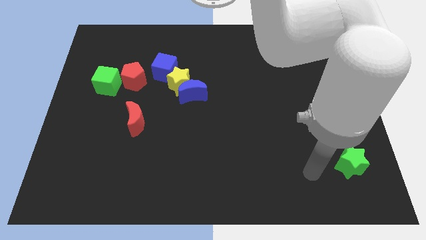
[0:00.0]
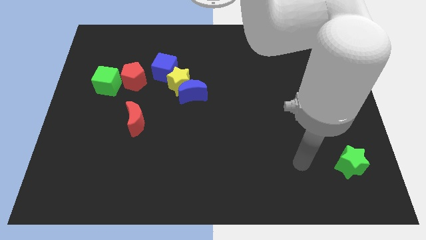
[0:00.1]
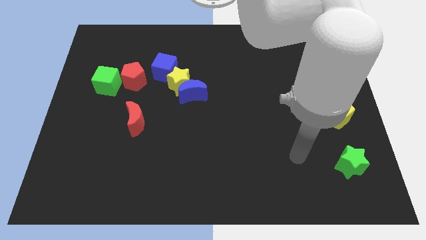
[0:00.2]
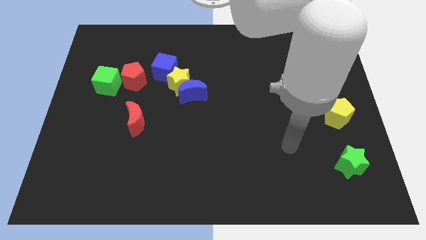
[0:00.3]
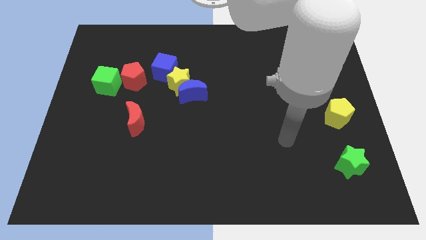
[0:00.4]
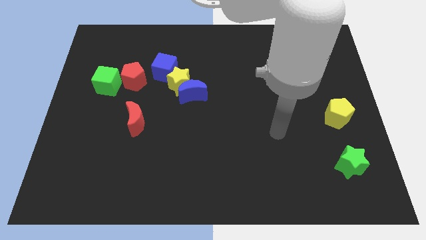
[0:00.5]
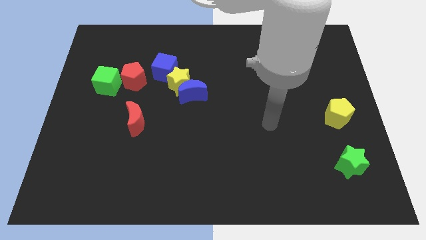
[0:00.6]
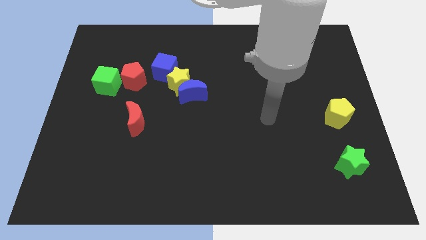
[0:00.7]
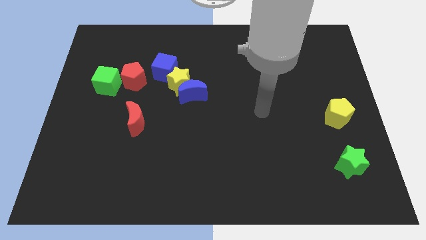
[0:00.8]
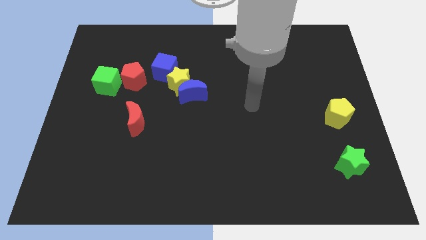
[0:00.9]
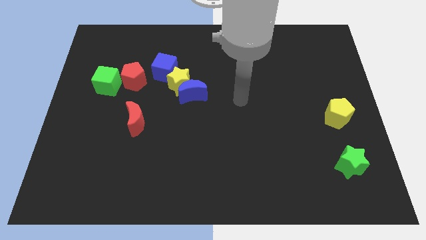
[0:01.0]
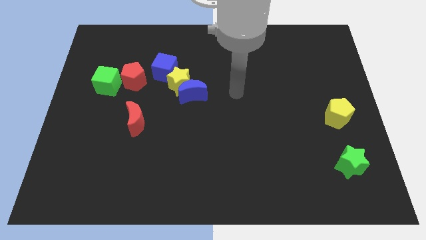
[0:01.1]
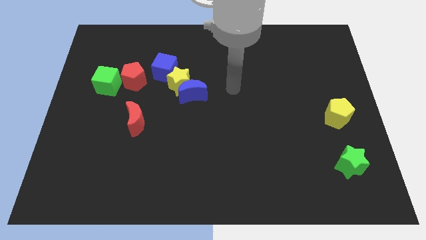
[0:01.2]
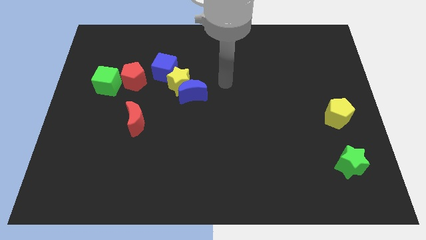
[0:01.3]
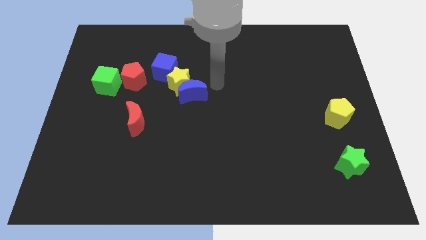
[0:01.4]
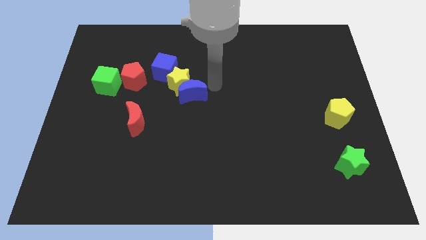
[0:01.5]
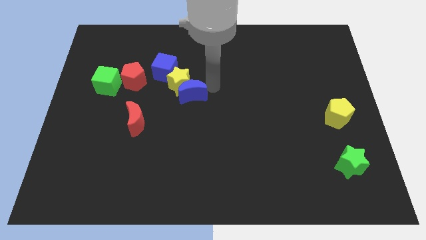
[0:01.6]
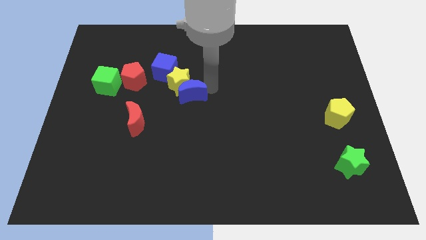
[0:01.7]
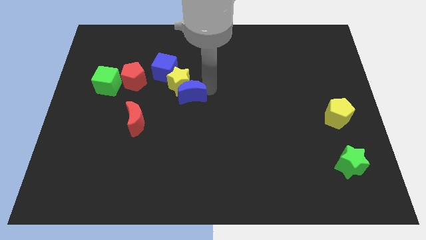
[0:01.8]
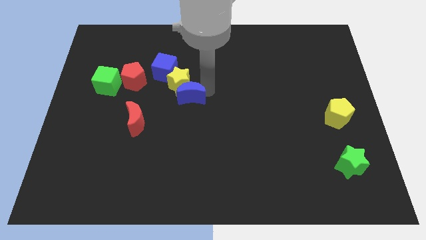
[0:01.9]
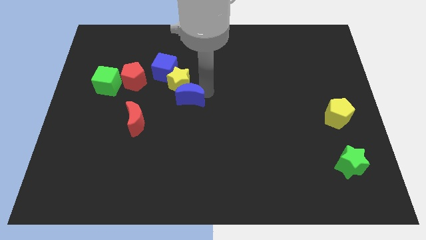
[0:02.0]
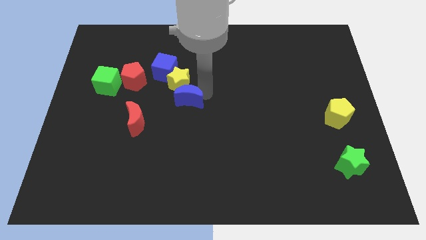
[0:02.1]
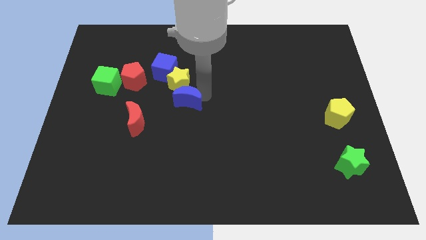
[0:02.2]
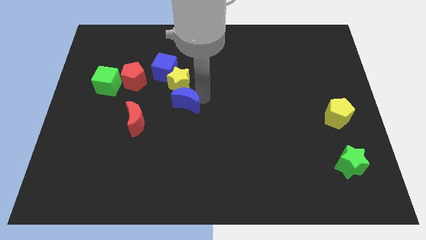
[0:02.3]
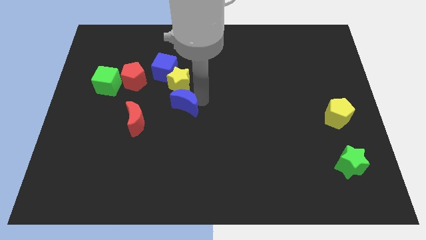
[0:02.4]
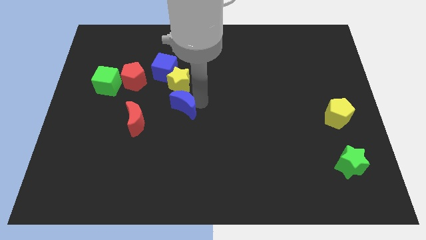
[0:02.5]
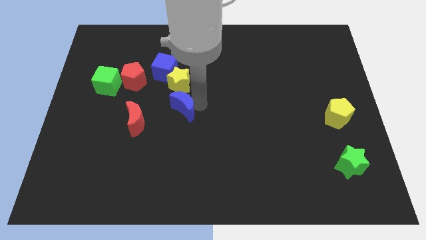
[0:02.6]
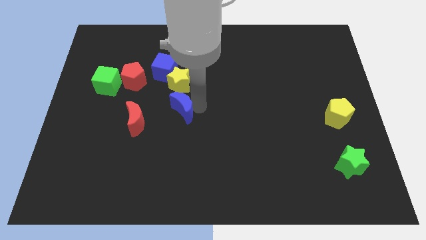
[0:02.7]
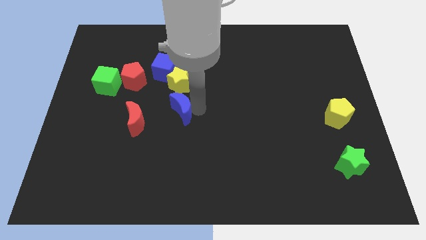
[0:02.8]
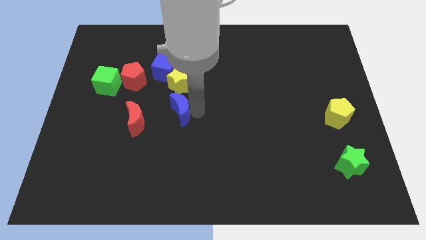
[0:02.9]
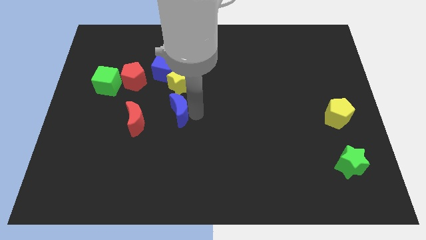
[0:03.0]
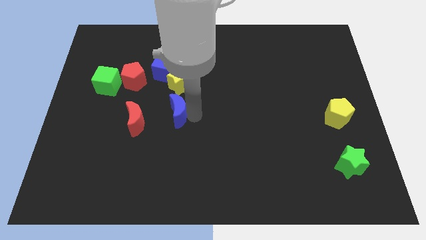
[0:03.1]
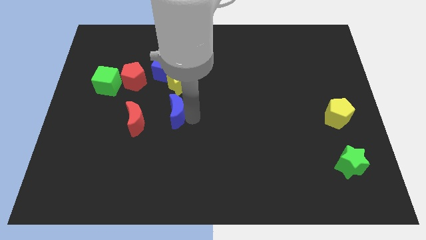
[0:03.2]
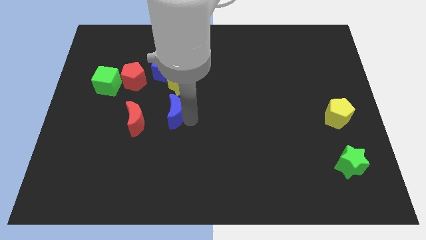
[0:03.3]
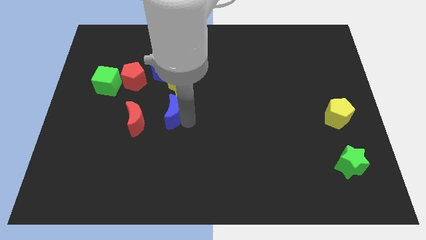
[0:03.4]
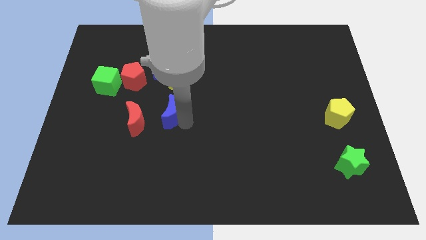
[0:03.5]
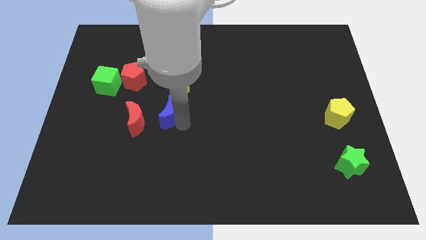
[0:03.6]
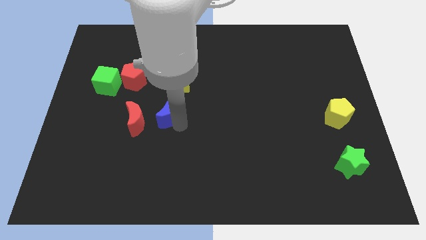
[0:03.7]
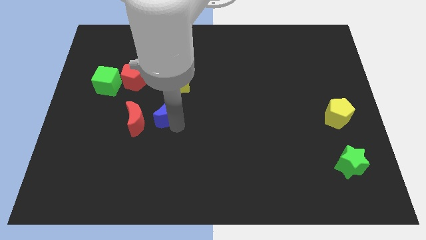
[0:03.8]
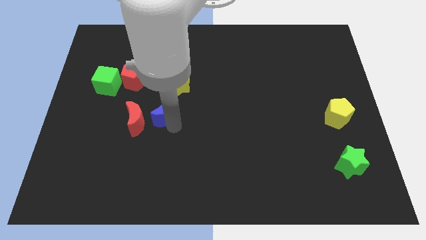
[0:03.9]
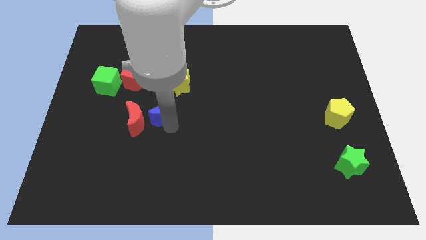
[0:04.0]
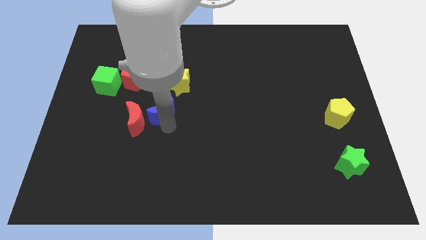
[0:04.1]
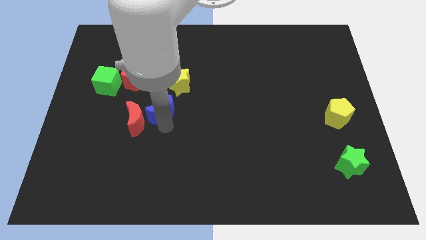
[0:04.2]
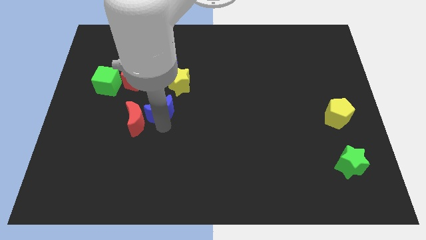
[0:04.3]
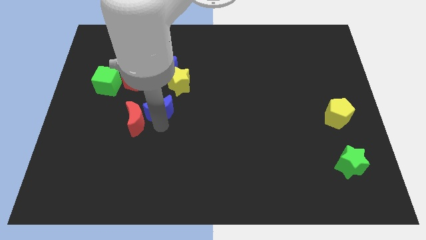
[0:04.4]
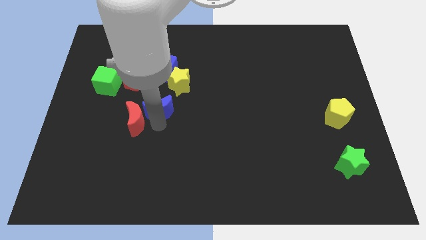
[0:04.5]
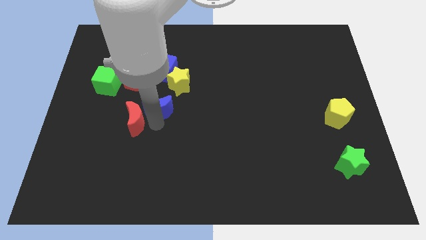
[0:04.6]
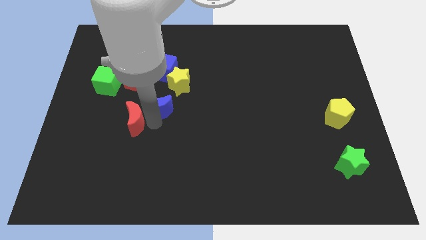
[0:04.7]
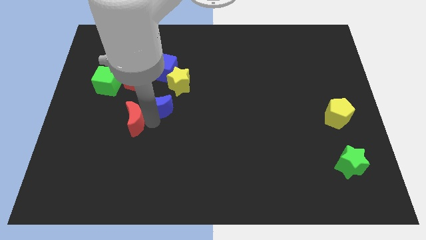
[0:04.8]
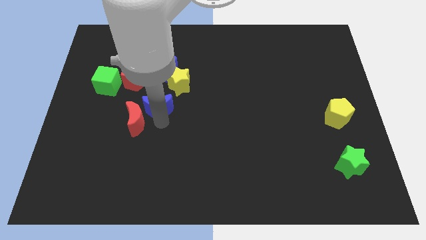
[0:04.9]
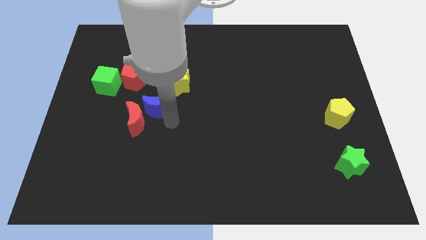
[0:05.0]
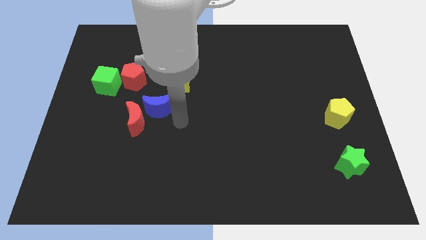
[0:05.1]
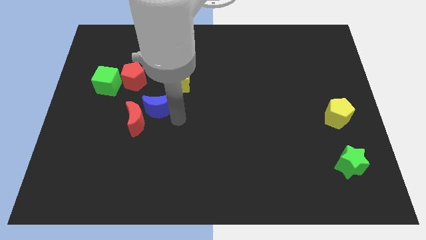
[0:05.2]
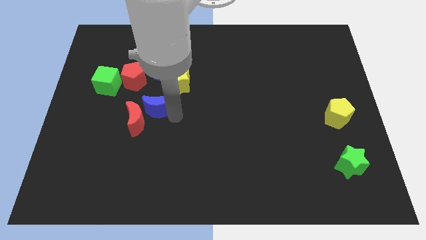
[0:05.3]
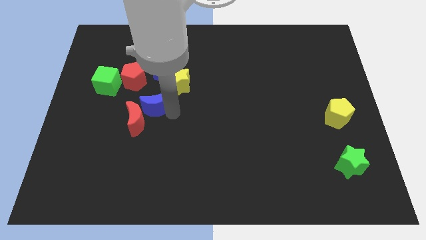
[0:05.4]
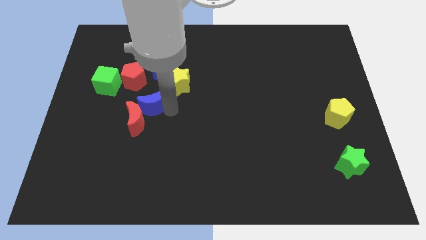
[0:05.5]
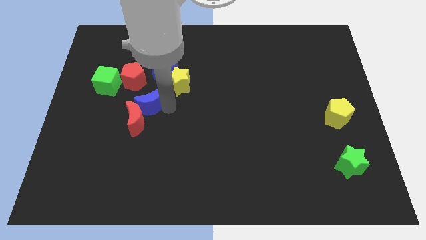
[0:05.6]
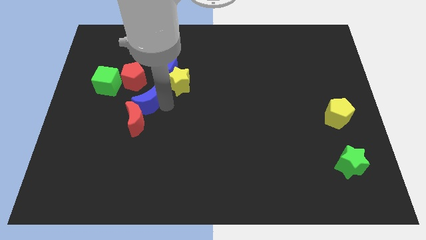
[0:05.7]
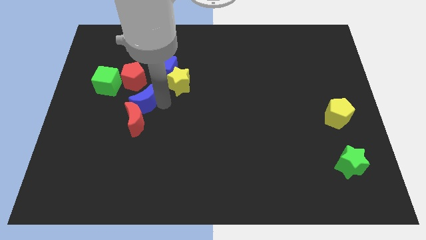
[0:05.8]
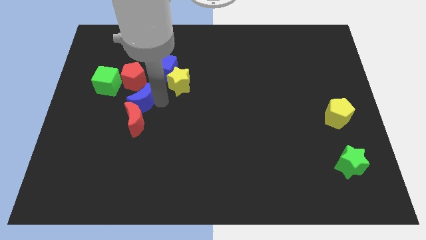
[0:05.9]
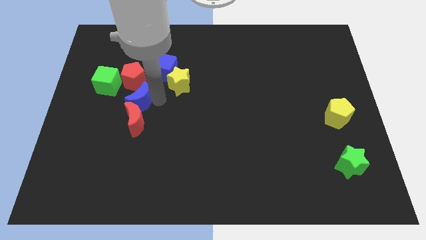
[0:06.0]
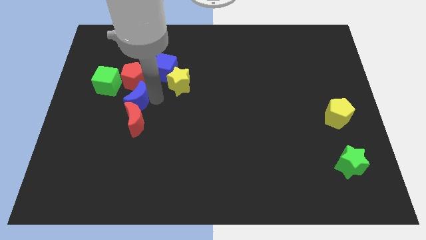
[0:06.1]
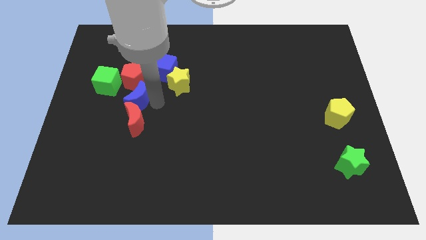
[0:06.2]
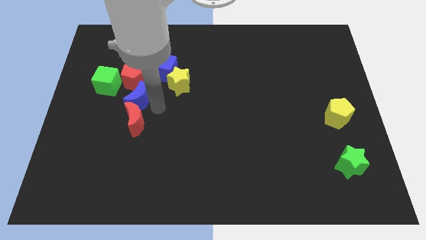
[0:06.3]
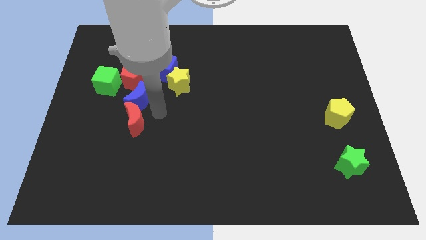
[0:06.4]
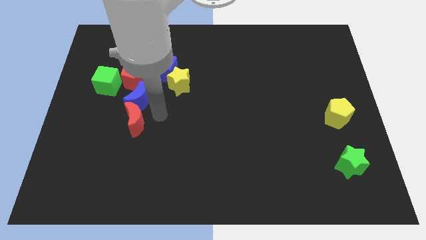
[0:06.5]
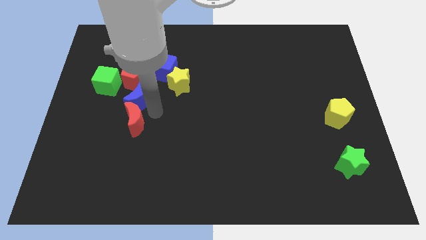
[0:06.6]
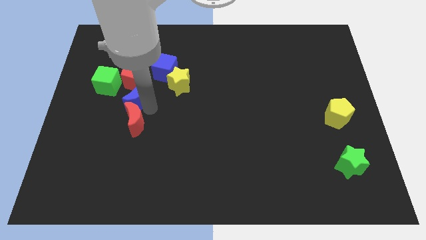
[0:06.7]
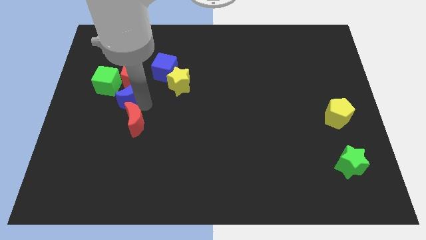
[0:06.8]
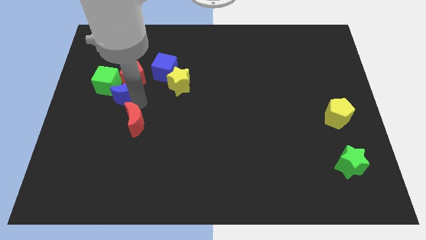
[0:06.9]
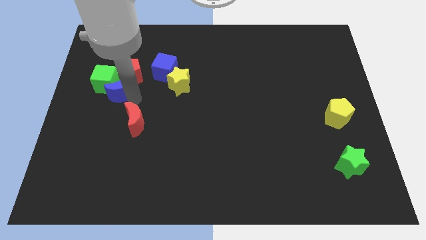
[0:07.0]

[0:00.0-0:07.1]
slide the blue moon to the green cube
